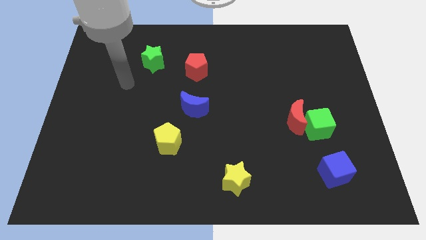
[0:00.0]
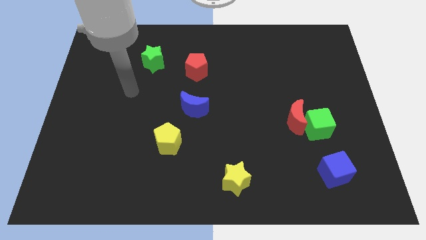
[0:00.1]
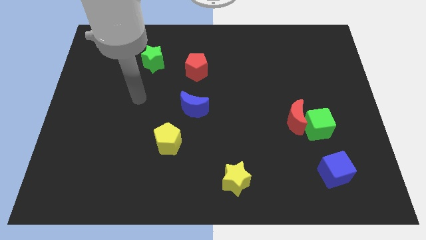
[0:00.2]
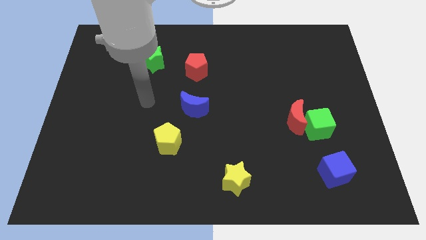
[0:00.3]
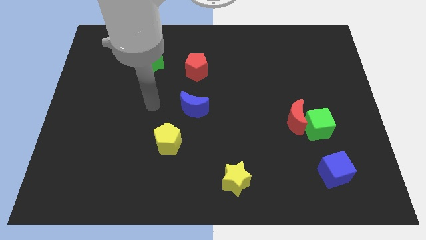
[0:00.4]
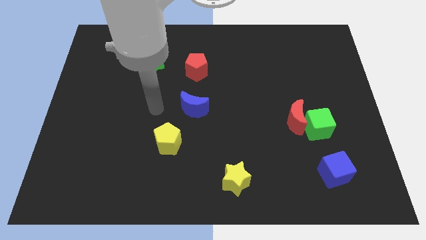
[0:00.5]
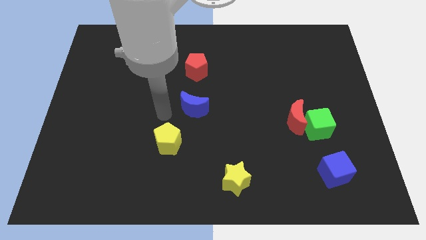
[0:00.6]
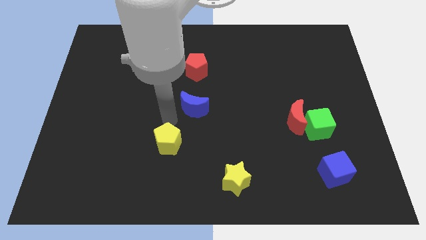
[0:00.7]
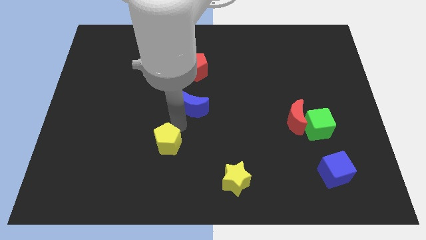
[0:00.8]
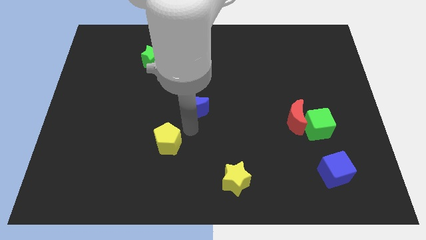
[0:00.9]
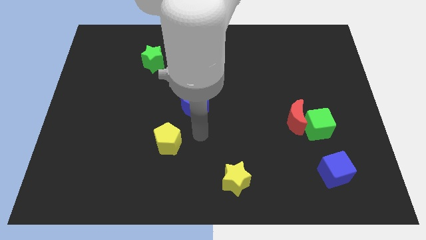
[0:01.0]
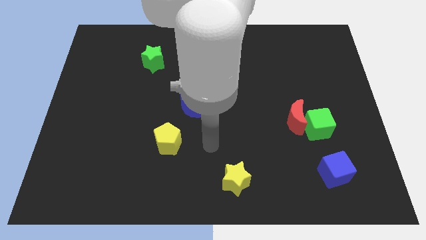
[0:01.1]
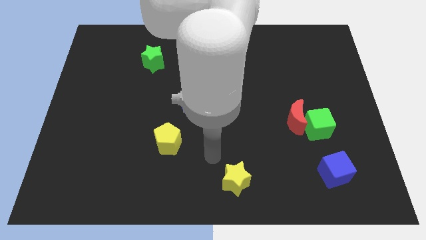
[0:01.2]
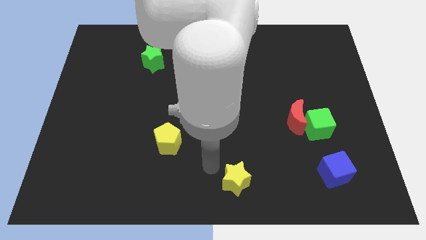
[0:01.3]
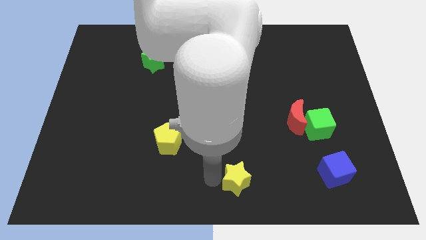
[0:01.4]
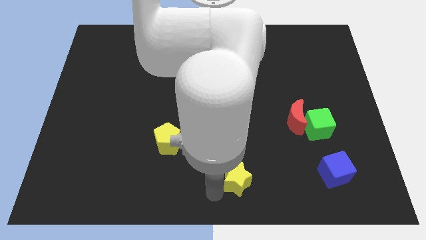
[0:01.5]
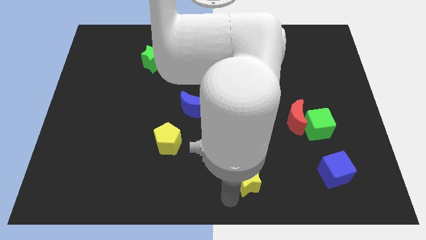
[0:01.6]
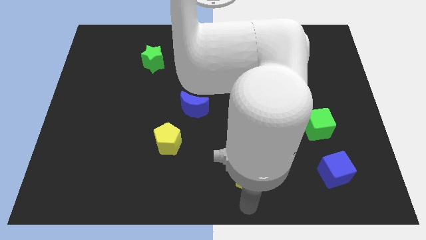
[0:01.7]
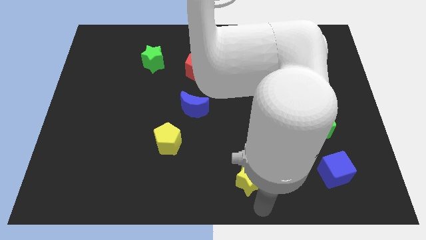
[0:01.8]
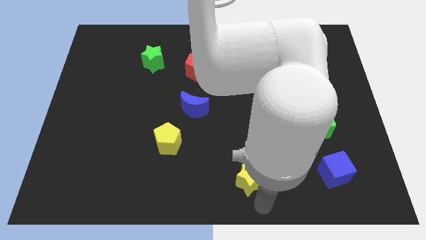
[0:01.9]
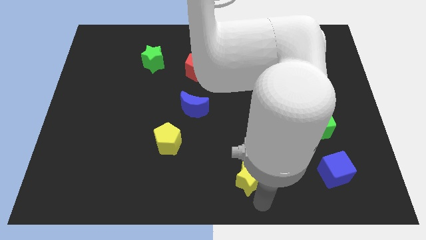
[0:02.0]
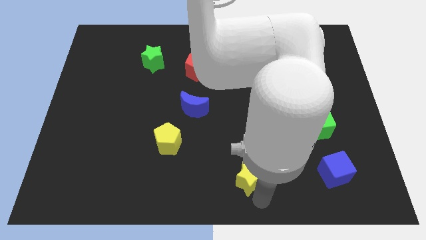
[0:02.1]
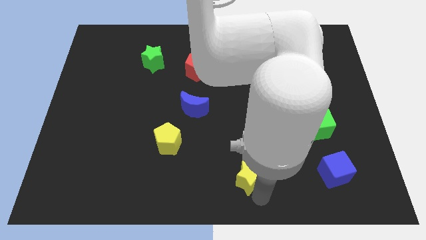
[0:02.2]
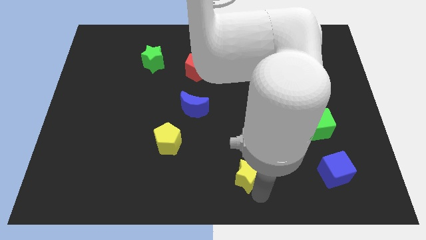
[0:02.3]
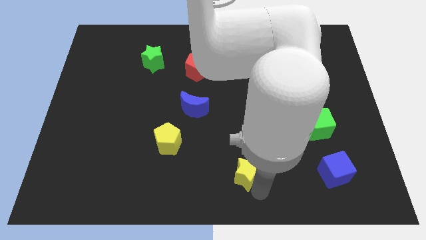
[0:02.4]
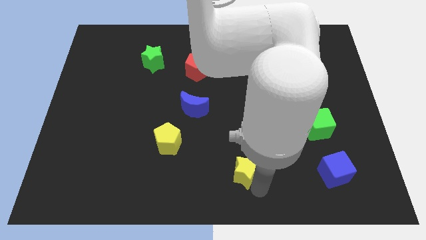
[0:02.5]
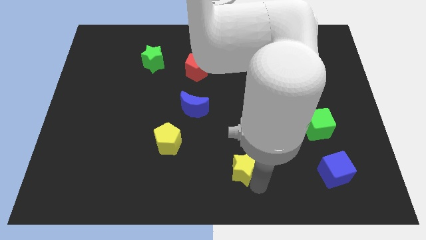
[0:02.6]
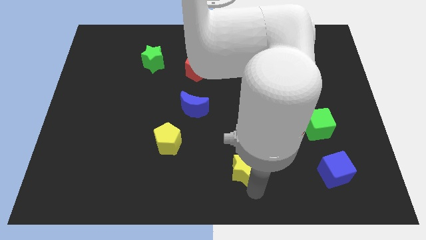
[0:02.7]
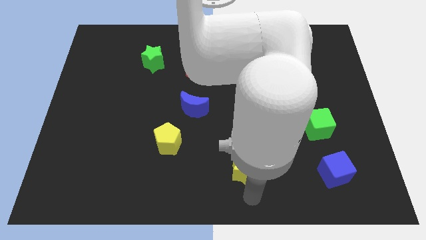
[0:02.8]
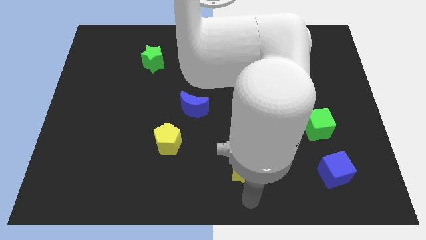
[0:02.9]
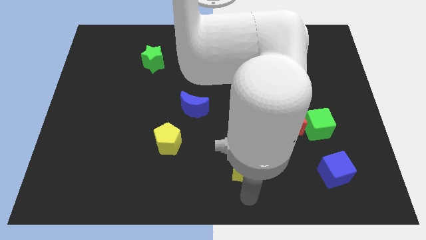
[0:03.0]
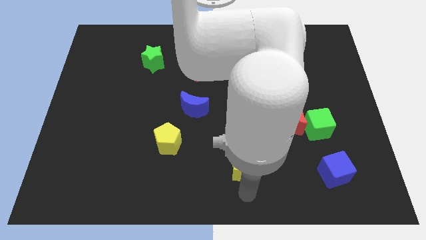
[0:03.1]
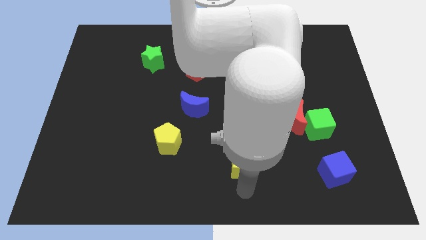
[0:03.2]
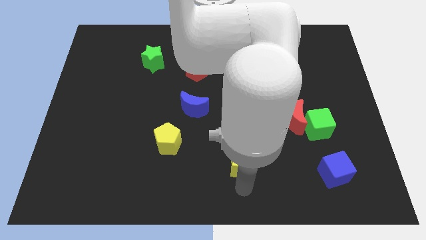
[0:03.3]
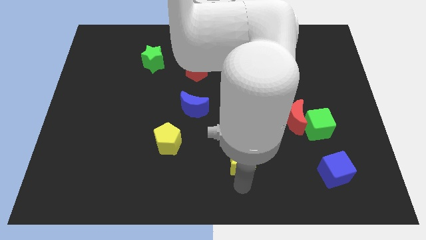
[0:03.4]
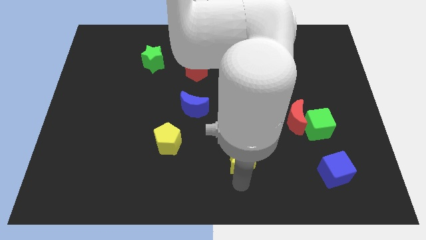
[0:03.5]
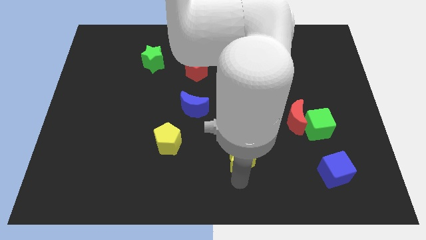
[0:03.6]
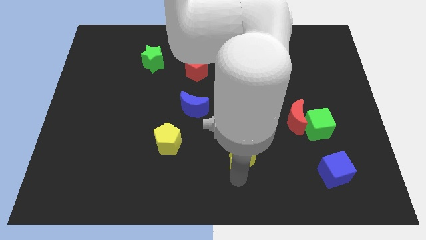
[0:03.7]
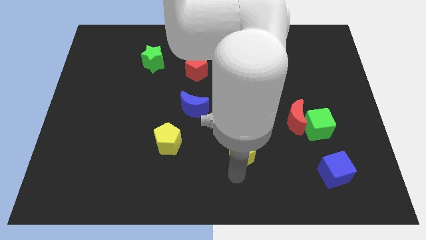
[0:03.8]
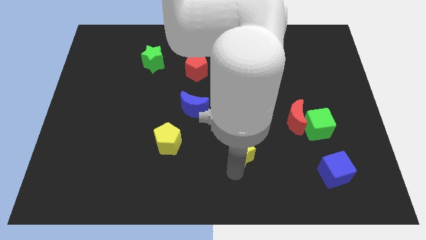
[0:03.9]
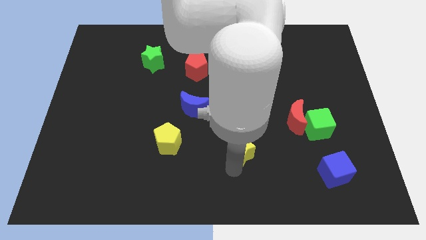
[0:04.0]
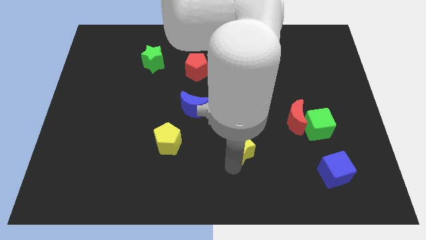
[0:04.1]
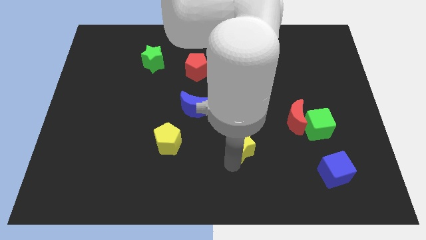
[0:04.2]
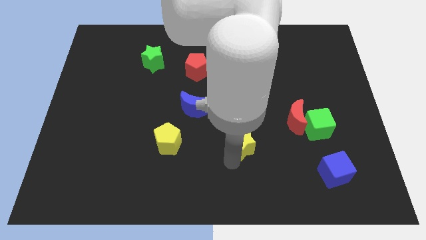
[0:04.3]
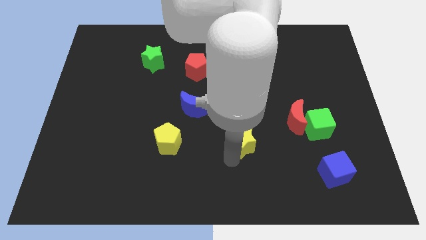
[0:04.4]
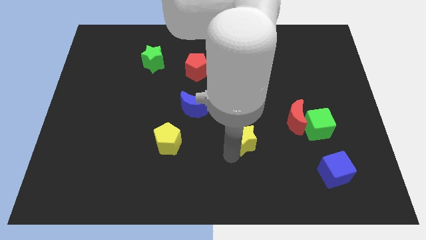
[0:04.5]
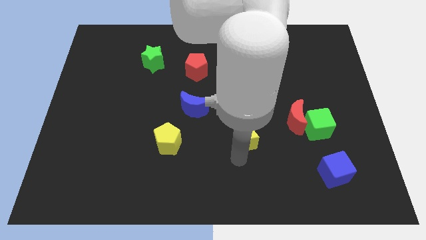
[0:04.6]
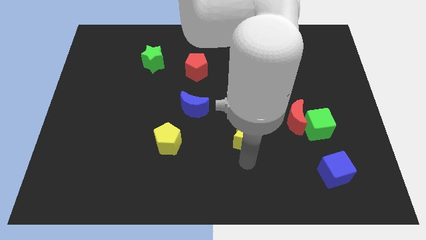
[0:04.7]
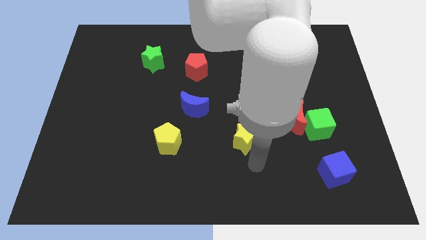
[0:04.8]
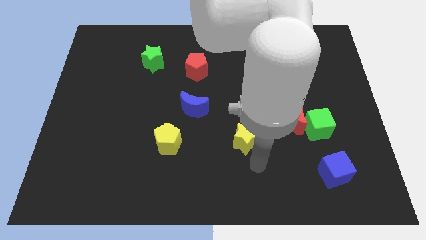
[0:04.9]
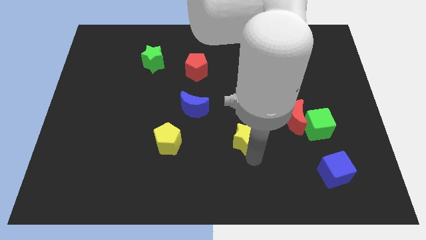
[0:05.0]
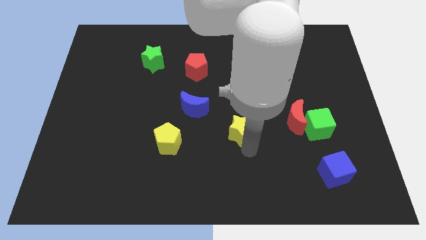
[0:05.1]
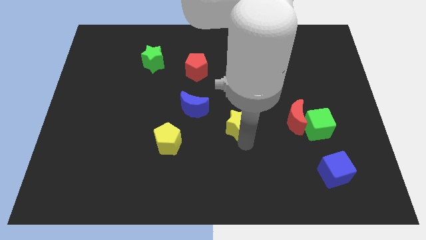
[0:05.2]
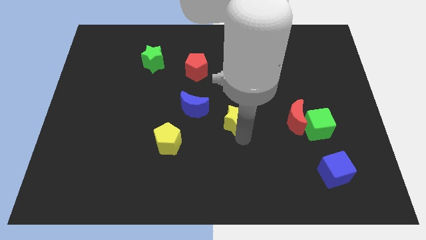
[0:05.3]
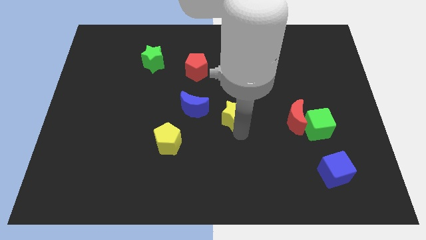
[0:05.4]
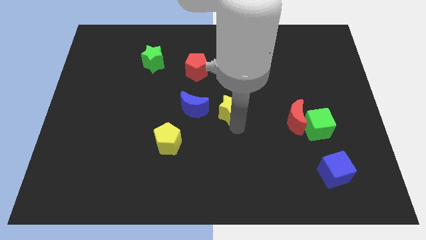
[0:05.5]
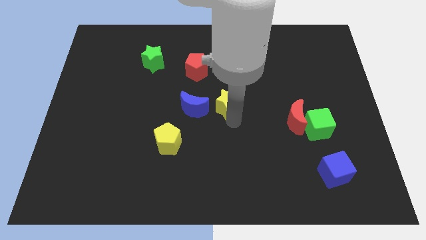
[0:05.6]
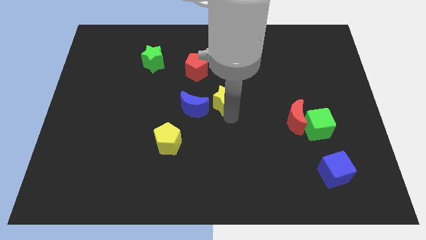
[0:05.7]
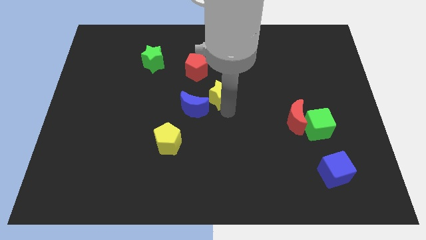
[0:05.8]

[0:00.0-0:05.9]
put the yellow star diagonally down and to the right of the red pentagon

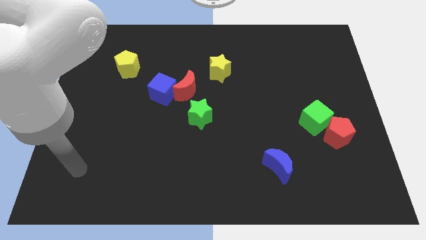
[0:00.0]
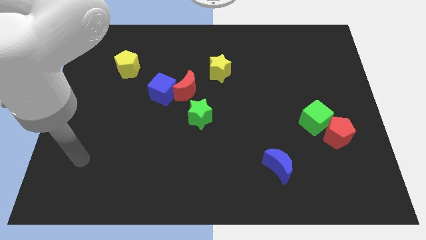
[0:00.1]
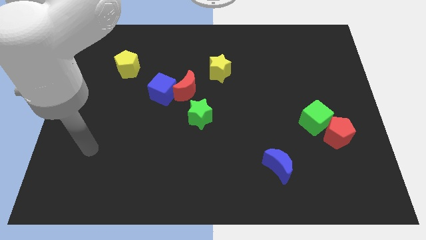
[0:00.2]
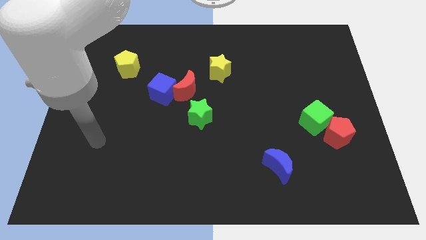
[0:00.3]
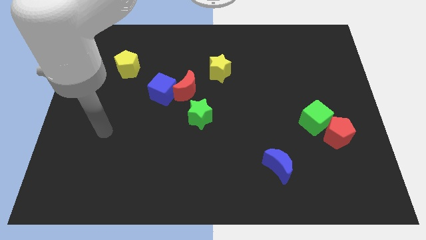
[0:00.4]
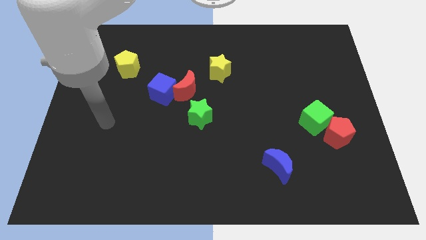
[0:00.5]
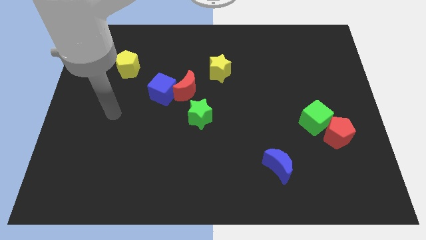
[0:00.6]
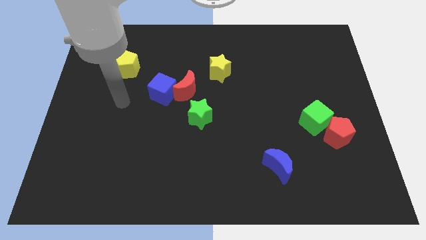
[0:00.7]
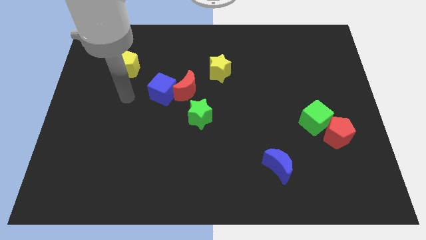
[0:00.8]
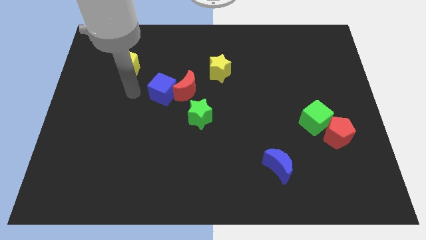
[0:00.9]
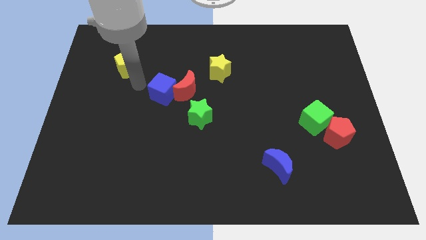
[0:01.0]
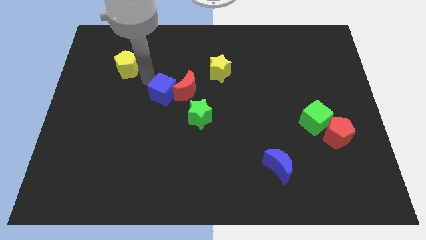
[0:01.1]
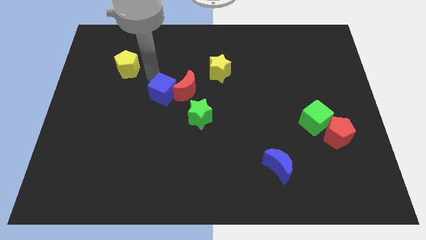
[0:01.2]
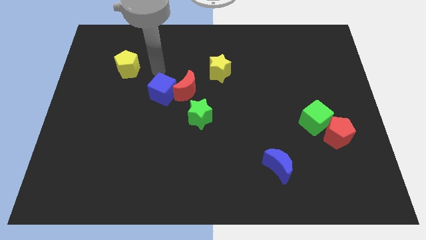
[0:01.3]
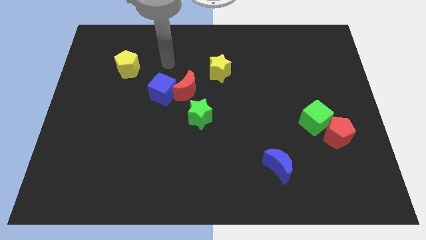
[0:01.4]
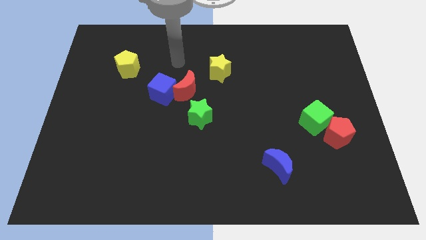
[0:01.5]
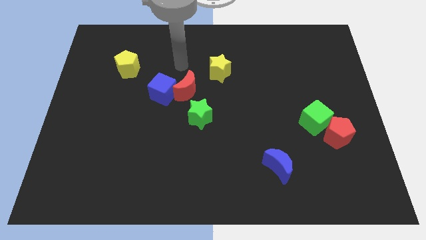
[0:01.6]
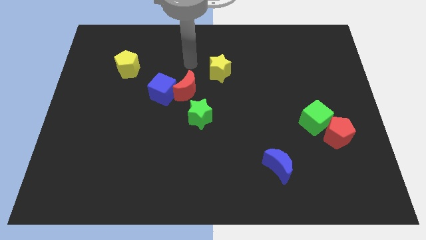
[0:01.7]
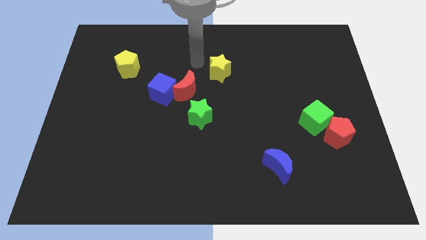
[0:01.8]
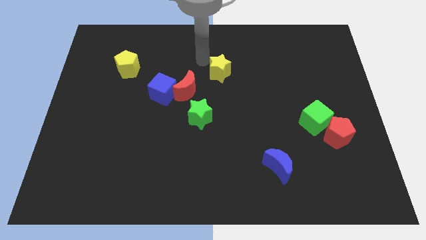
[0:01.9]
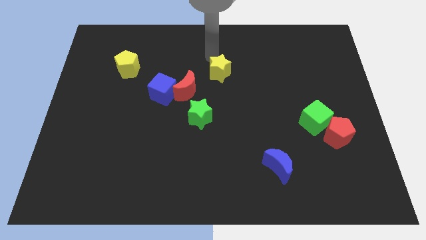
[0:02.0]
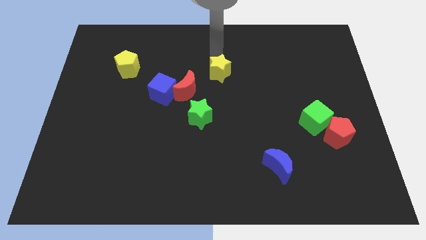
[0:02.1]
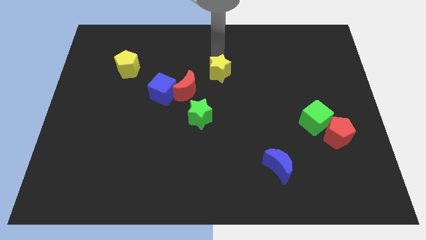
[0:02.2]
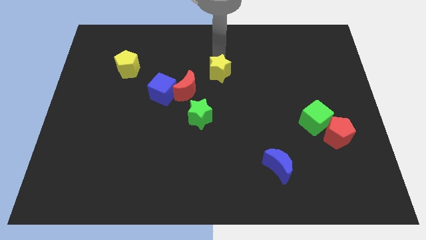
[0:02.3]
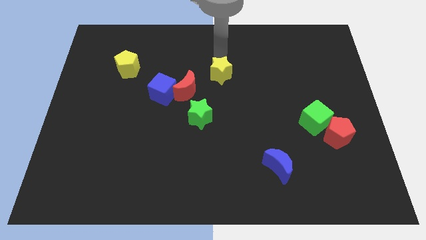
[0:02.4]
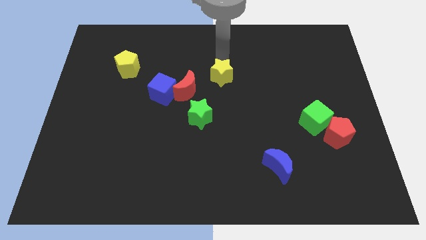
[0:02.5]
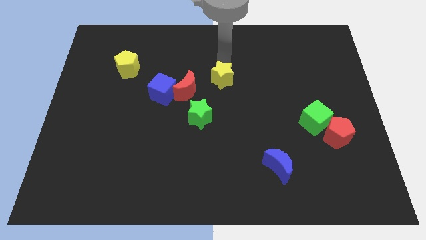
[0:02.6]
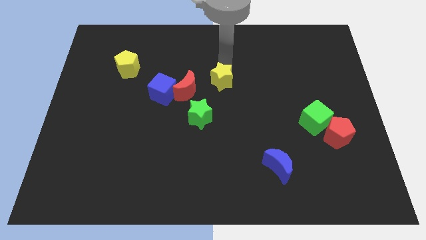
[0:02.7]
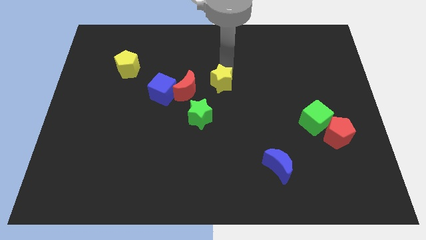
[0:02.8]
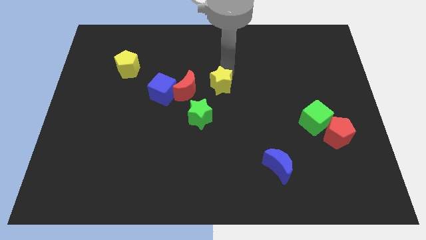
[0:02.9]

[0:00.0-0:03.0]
push the yellow star to the top right side of the green star
